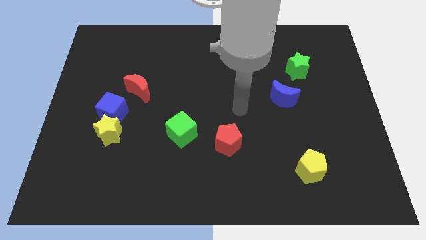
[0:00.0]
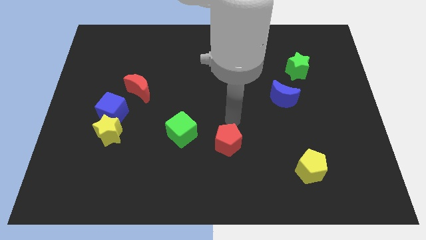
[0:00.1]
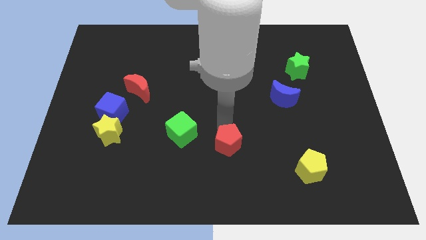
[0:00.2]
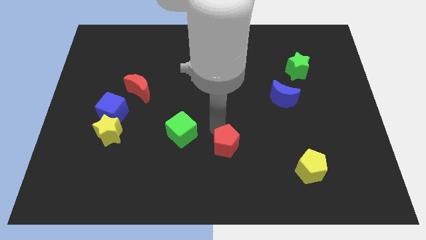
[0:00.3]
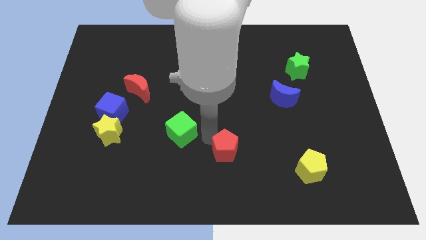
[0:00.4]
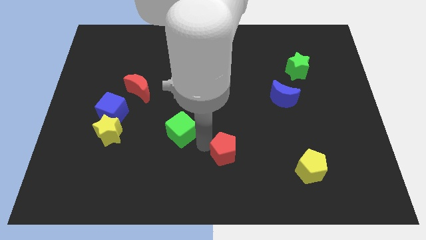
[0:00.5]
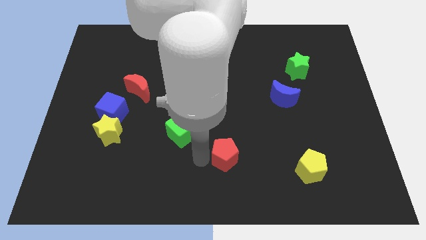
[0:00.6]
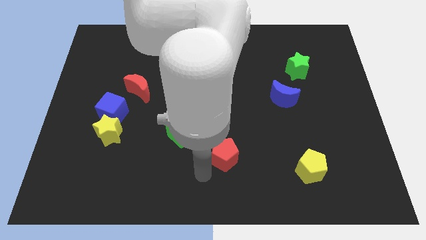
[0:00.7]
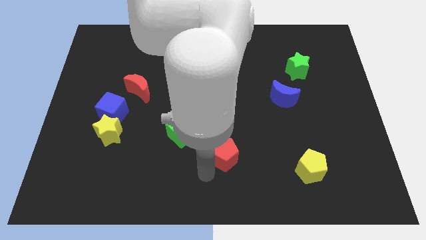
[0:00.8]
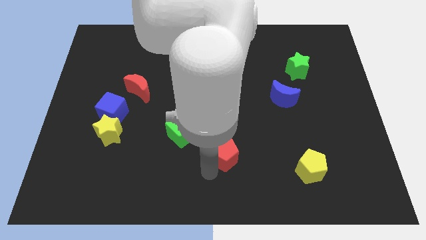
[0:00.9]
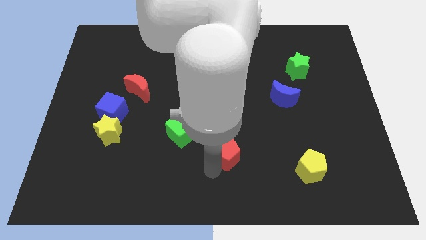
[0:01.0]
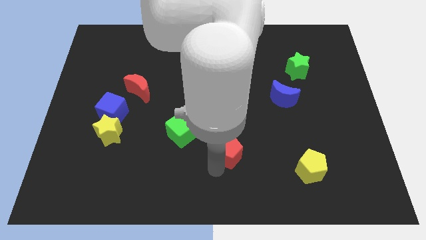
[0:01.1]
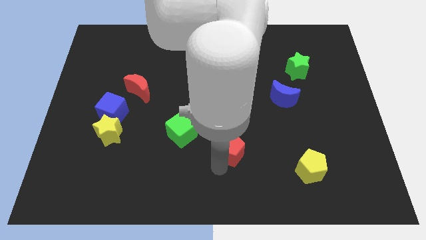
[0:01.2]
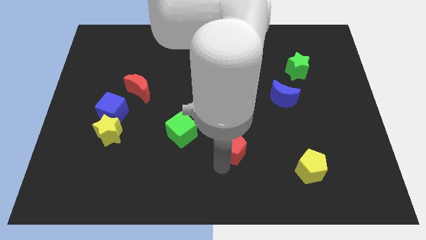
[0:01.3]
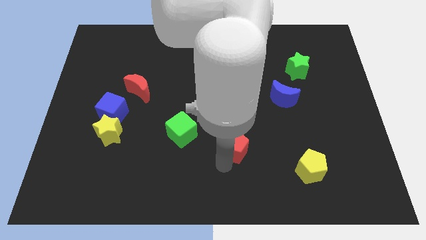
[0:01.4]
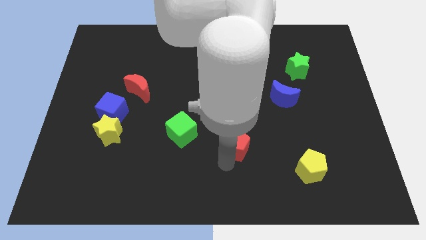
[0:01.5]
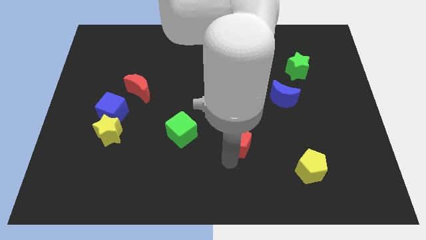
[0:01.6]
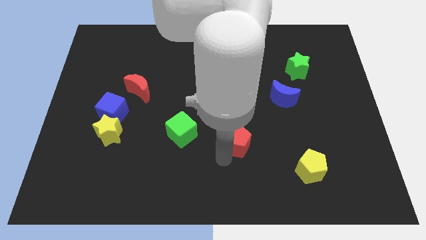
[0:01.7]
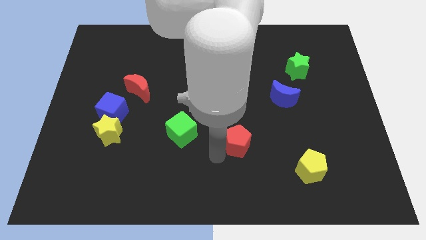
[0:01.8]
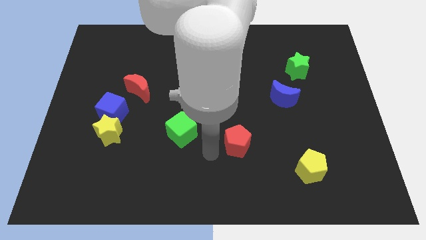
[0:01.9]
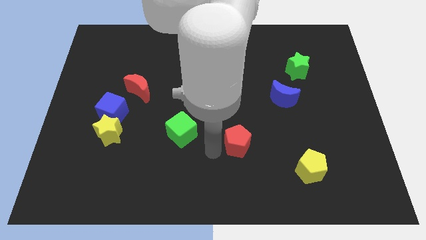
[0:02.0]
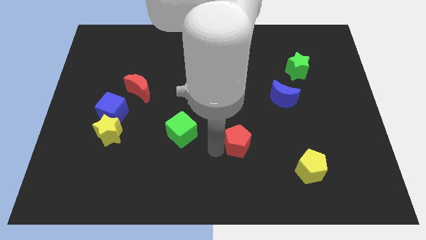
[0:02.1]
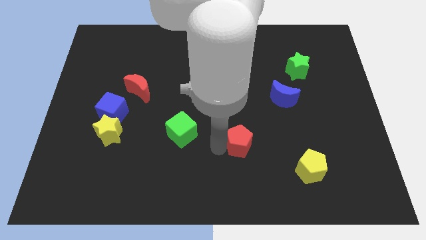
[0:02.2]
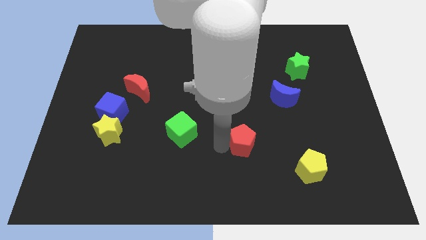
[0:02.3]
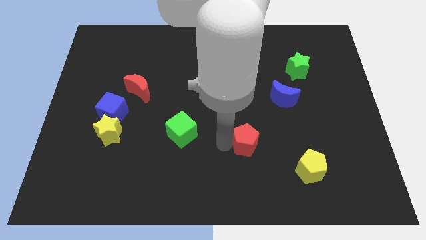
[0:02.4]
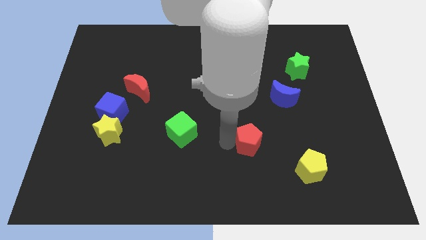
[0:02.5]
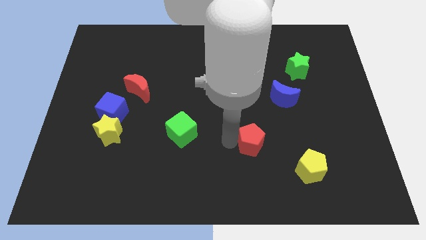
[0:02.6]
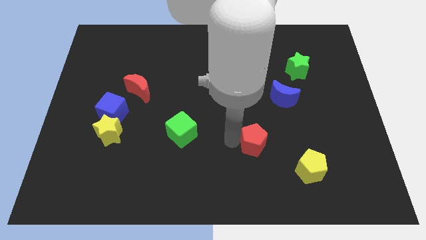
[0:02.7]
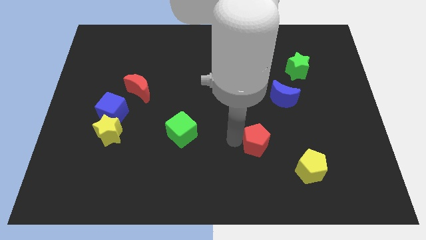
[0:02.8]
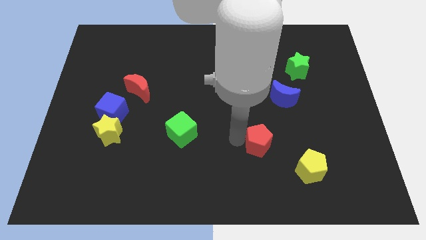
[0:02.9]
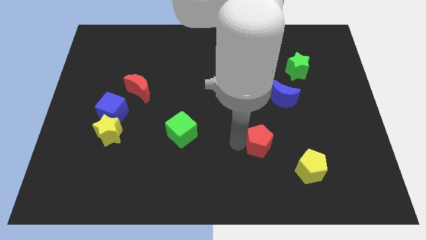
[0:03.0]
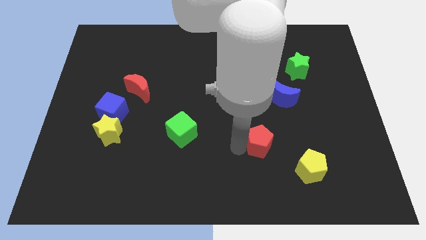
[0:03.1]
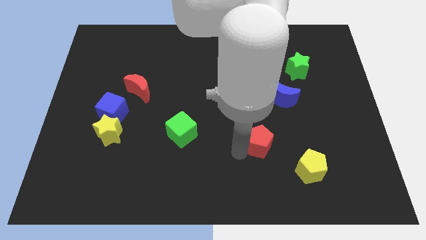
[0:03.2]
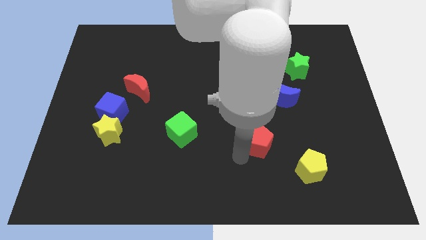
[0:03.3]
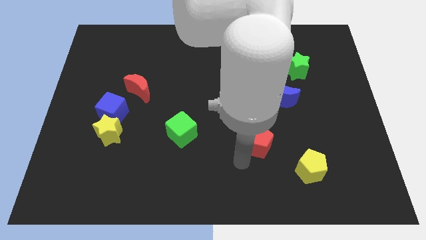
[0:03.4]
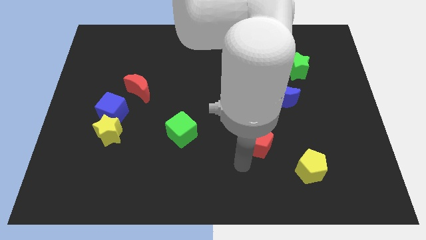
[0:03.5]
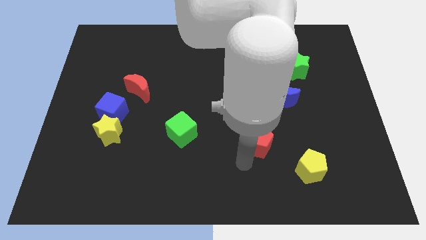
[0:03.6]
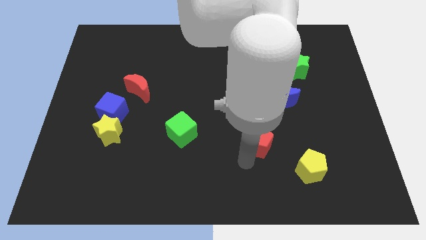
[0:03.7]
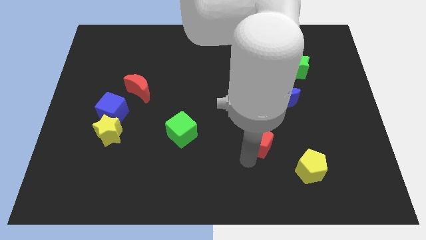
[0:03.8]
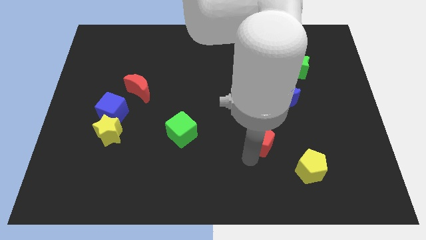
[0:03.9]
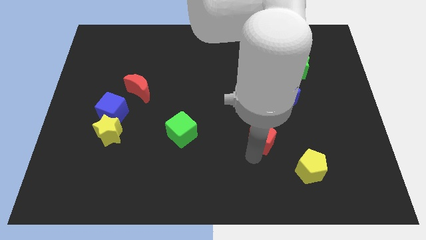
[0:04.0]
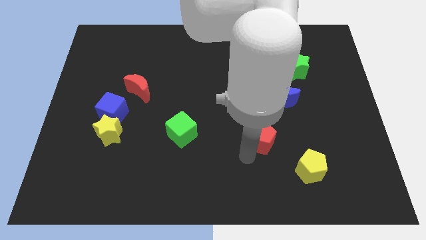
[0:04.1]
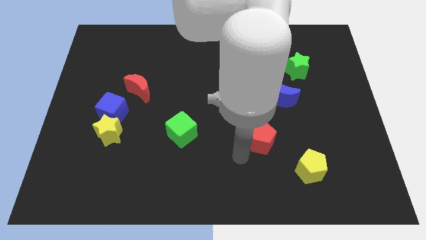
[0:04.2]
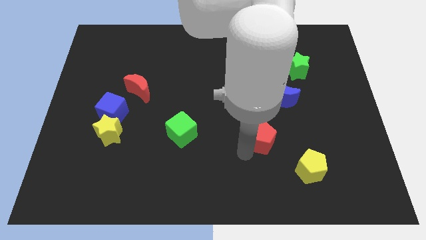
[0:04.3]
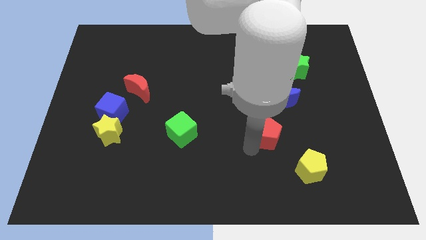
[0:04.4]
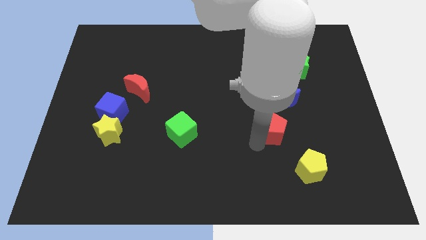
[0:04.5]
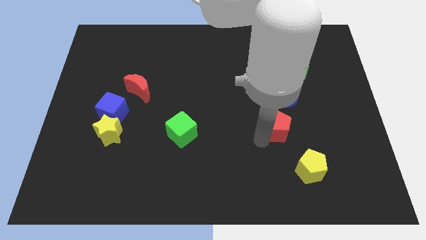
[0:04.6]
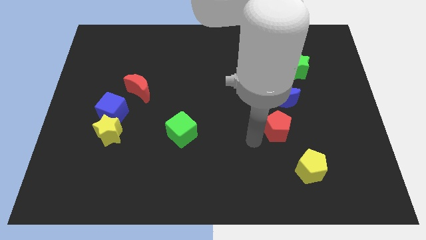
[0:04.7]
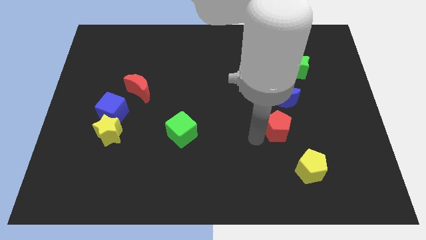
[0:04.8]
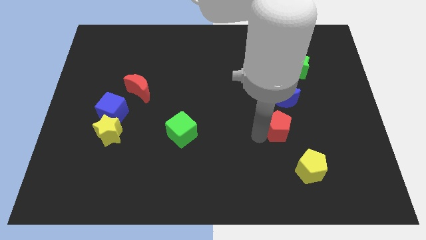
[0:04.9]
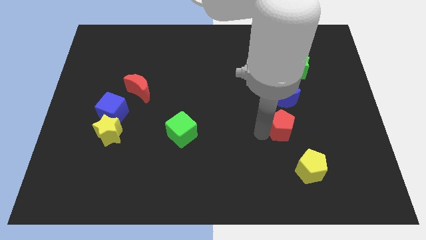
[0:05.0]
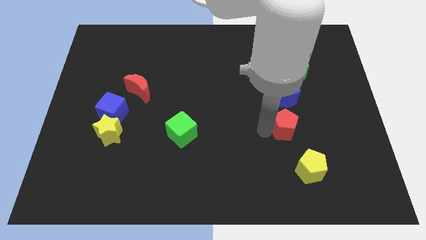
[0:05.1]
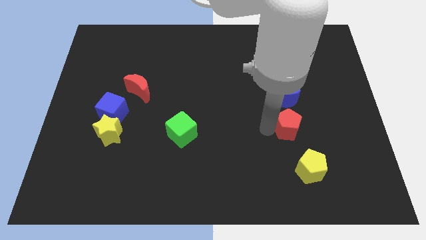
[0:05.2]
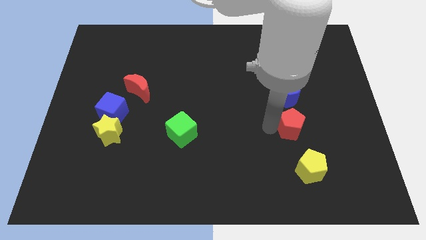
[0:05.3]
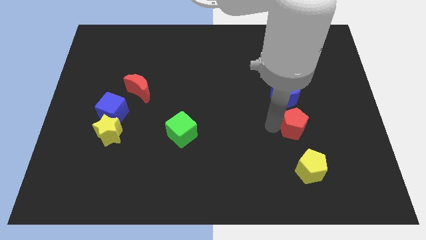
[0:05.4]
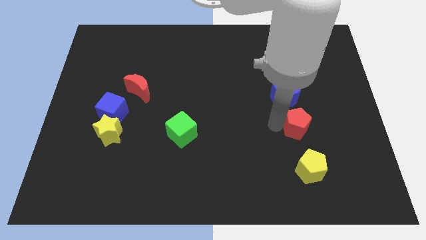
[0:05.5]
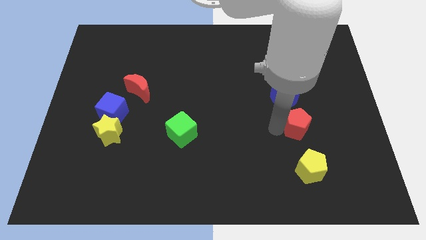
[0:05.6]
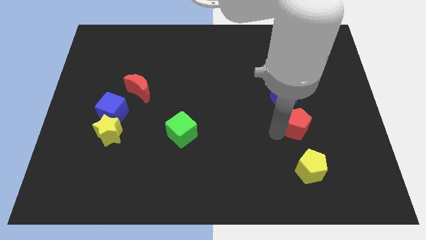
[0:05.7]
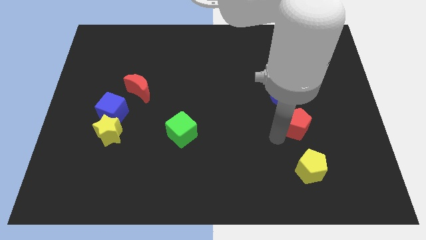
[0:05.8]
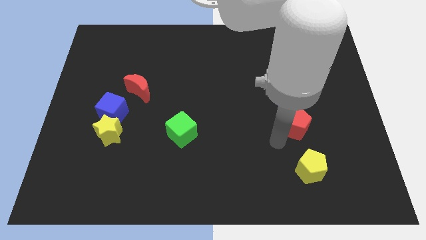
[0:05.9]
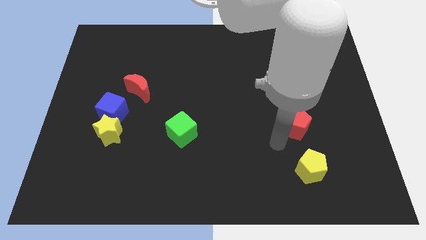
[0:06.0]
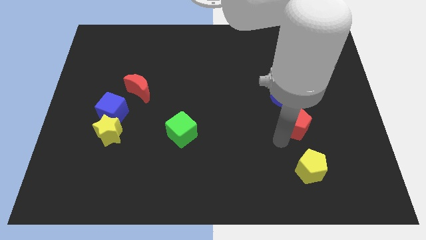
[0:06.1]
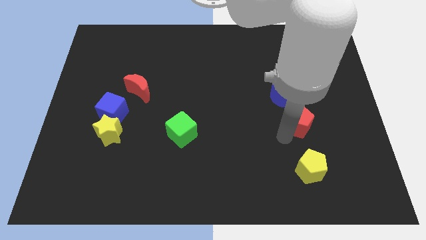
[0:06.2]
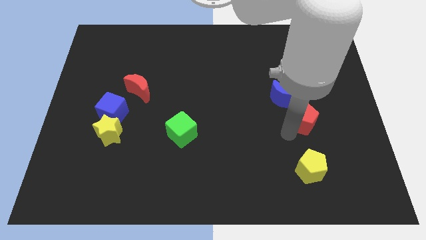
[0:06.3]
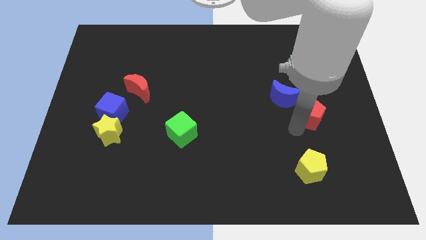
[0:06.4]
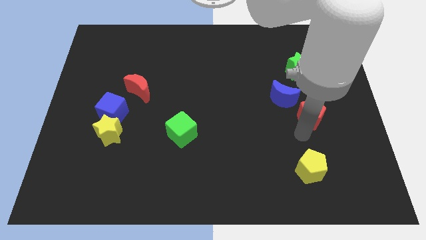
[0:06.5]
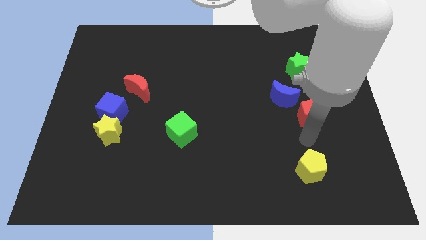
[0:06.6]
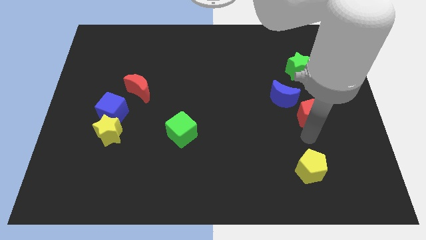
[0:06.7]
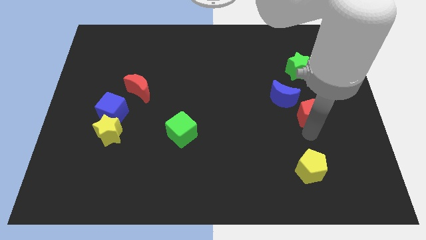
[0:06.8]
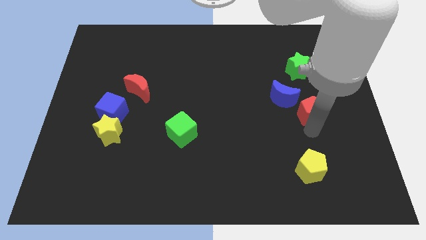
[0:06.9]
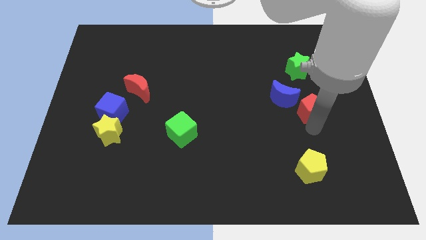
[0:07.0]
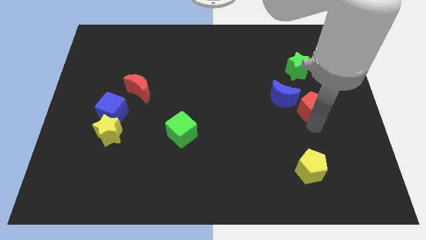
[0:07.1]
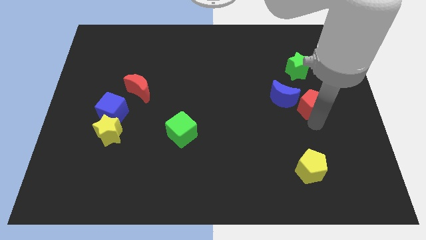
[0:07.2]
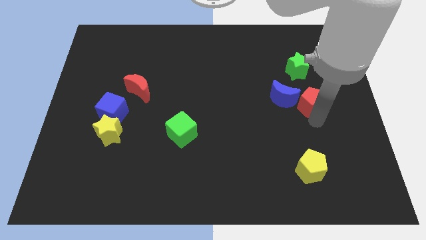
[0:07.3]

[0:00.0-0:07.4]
move the red pentagon diagonally upwards and right

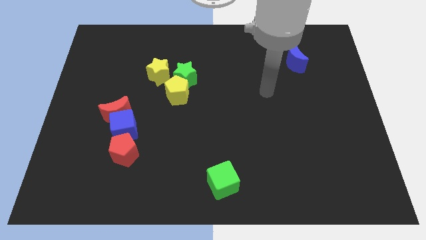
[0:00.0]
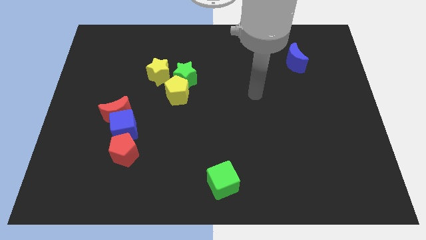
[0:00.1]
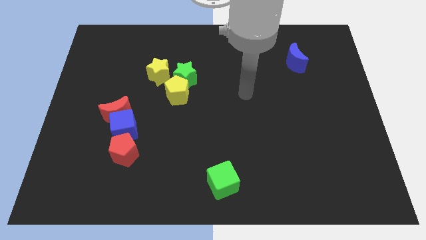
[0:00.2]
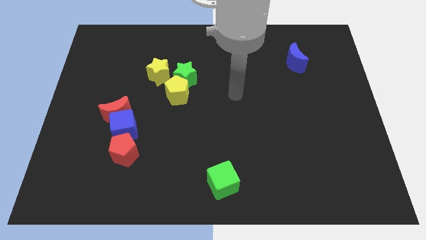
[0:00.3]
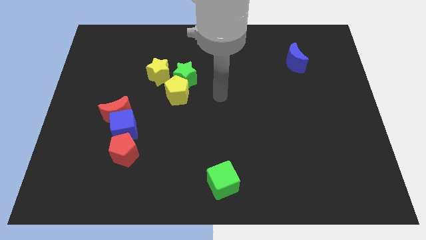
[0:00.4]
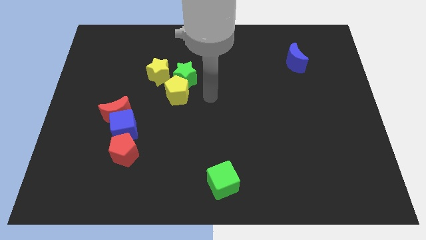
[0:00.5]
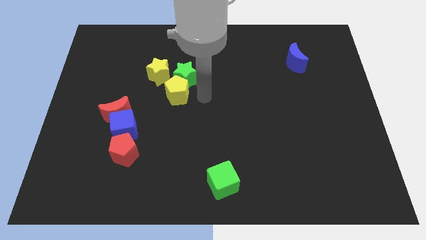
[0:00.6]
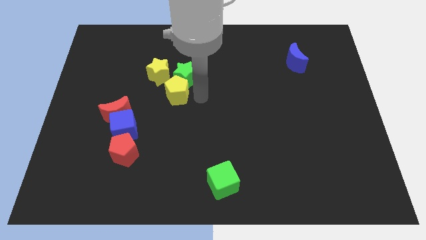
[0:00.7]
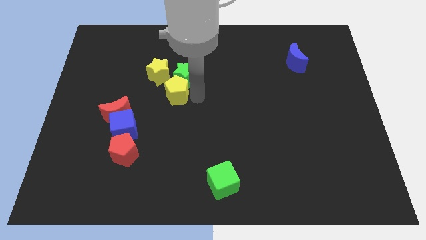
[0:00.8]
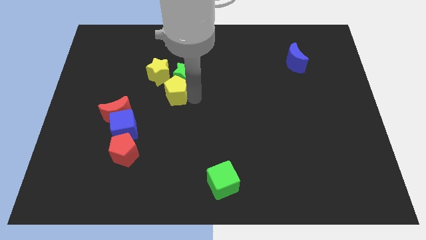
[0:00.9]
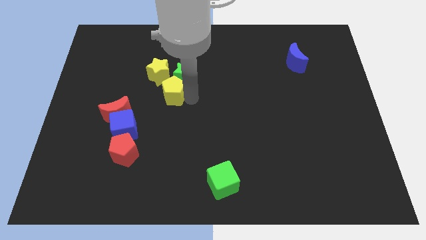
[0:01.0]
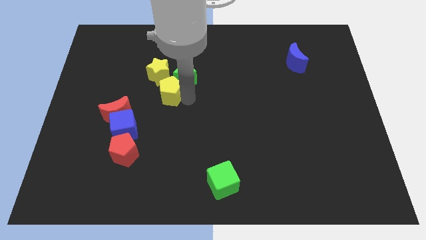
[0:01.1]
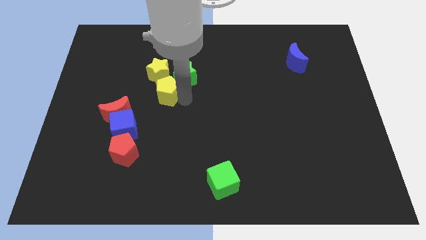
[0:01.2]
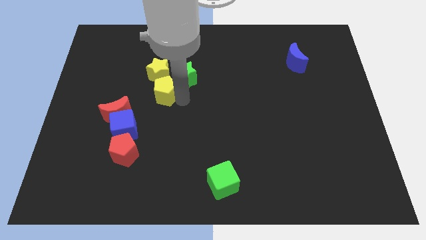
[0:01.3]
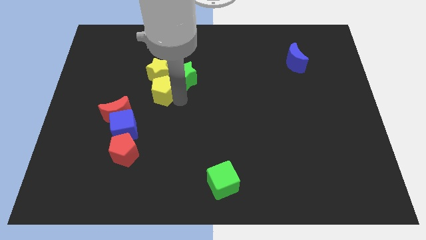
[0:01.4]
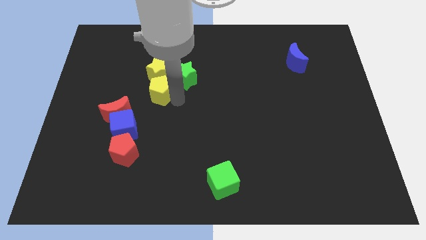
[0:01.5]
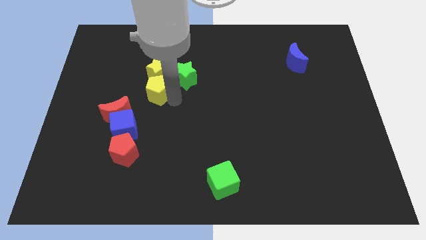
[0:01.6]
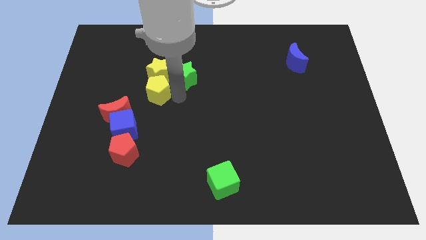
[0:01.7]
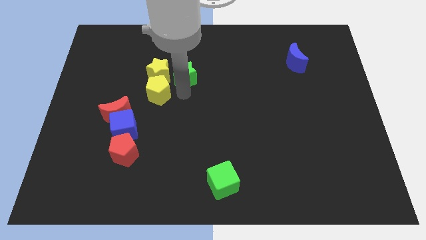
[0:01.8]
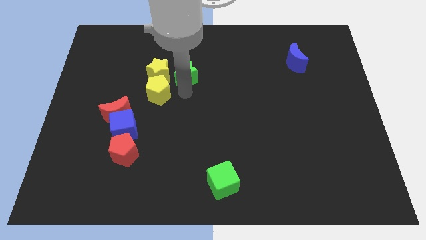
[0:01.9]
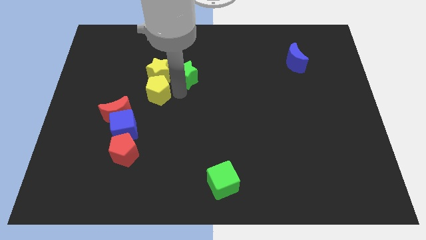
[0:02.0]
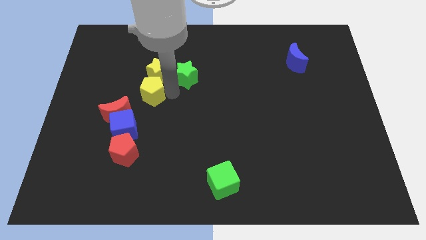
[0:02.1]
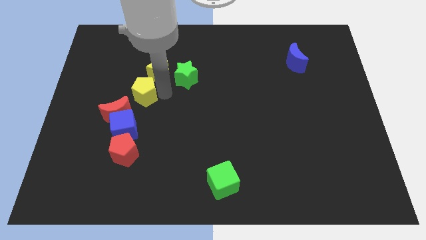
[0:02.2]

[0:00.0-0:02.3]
push the yellow pentagon left a little bit
